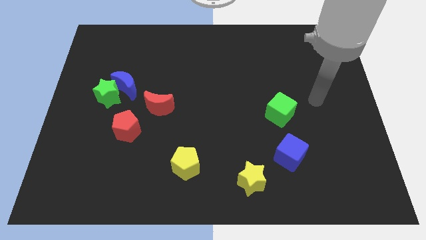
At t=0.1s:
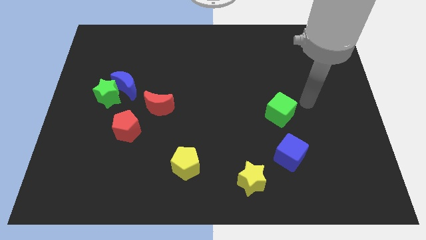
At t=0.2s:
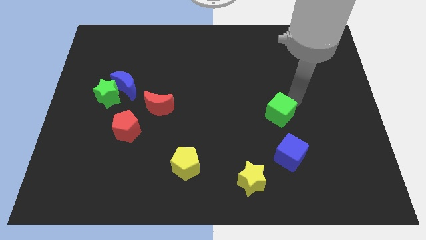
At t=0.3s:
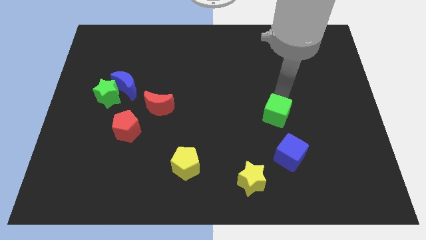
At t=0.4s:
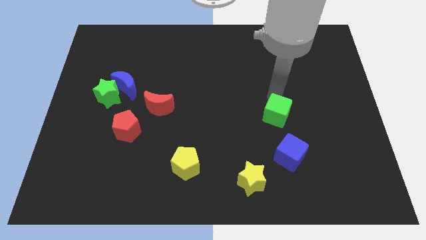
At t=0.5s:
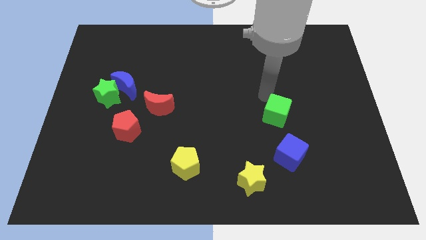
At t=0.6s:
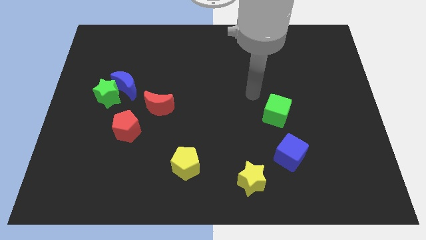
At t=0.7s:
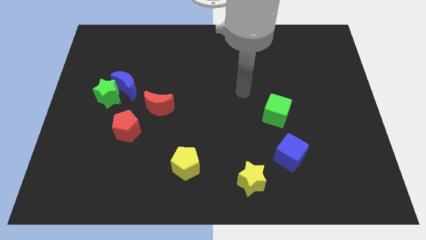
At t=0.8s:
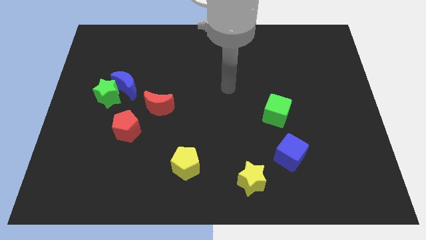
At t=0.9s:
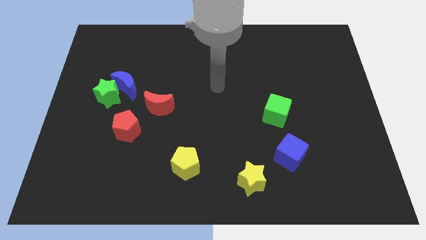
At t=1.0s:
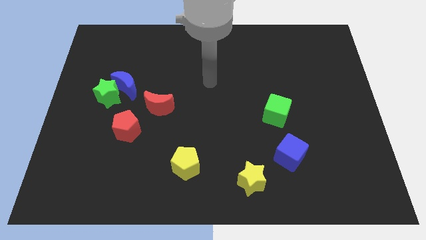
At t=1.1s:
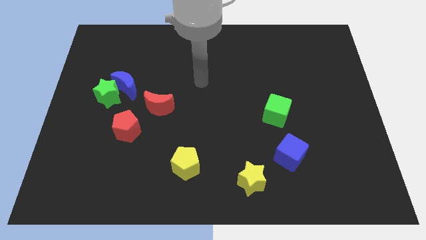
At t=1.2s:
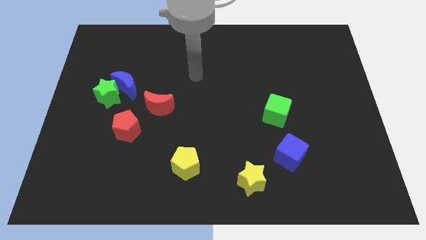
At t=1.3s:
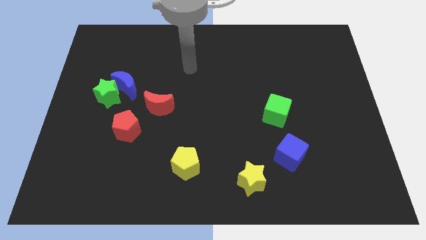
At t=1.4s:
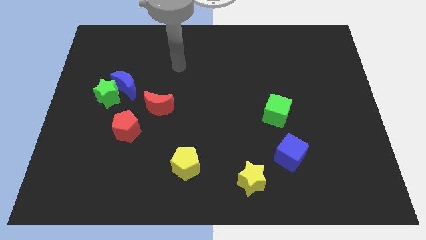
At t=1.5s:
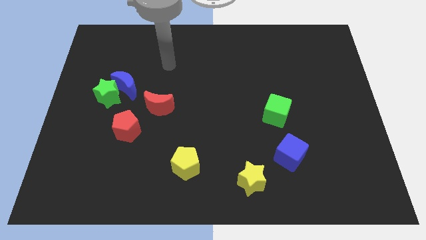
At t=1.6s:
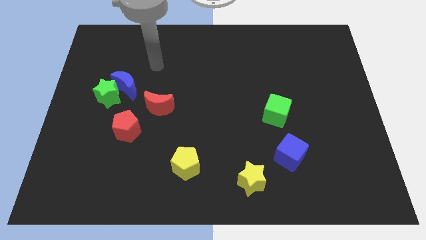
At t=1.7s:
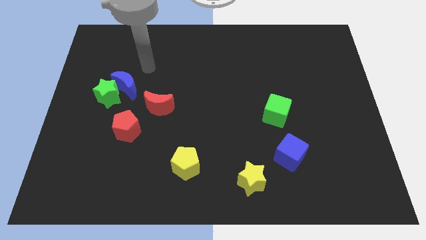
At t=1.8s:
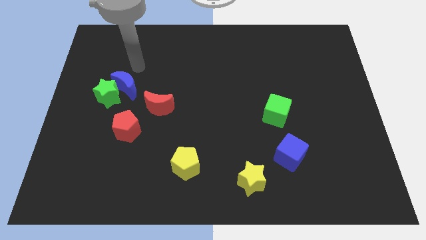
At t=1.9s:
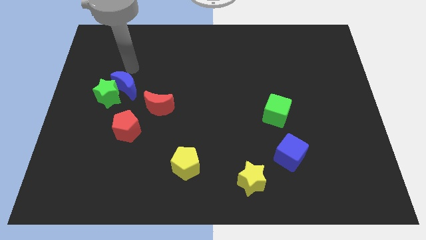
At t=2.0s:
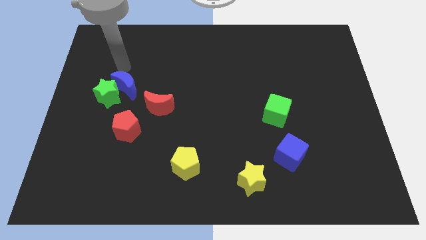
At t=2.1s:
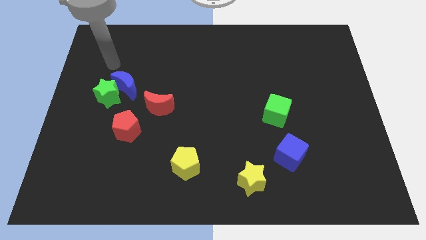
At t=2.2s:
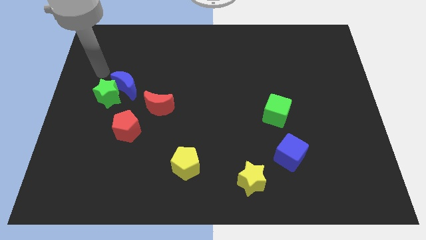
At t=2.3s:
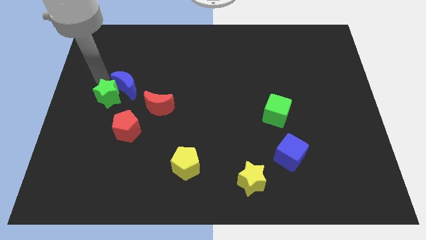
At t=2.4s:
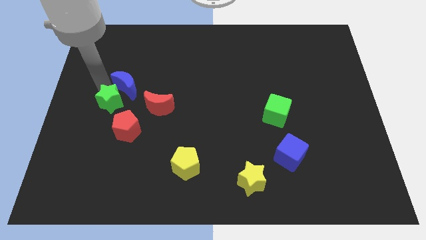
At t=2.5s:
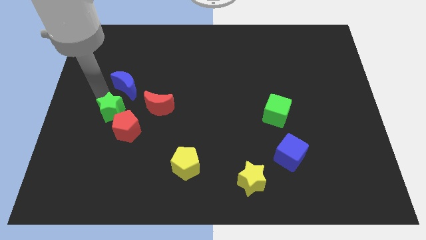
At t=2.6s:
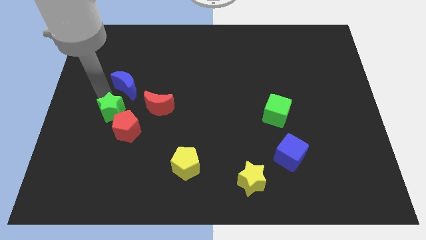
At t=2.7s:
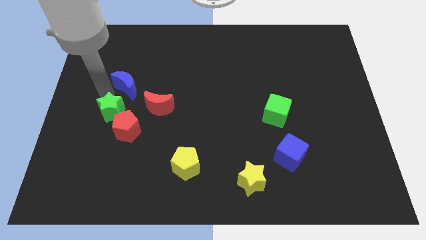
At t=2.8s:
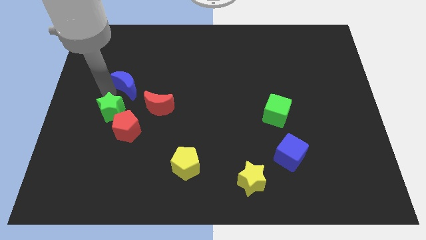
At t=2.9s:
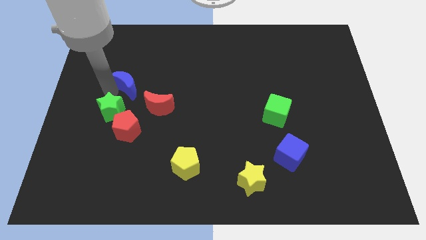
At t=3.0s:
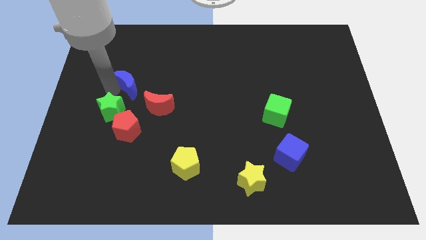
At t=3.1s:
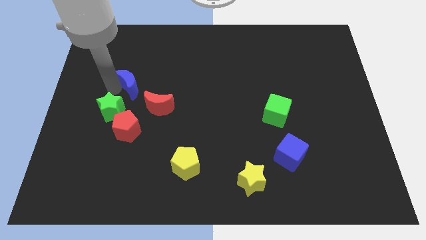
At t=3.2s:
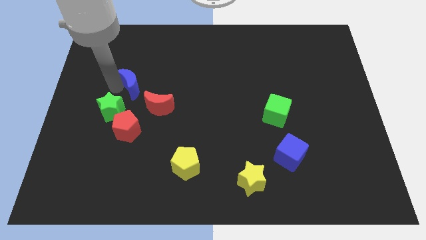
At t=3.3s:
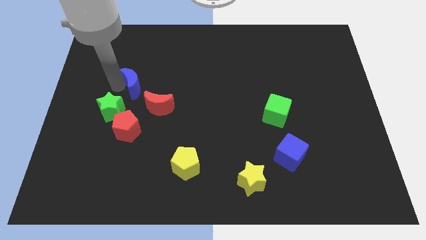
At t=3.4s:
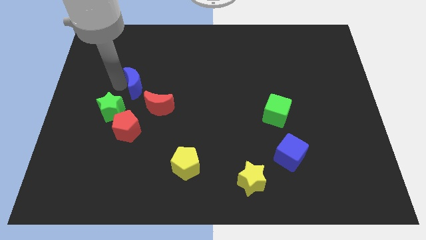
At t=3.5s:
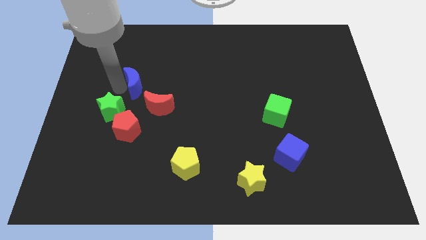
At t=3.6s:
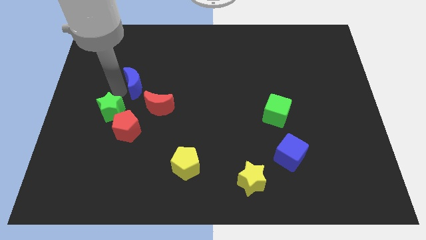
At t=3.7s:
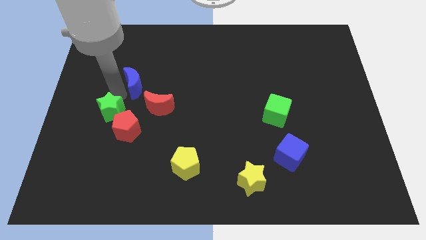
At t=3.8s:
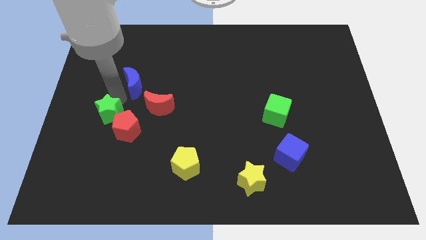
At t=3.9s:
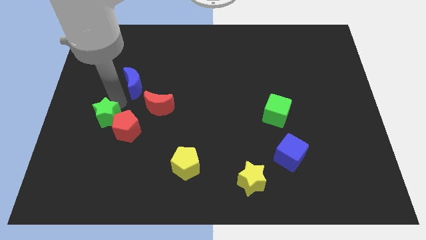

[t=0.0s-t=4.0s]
separate the blue moon from the green star

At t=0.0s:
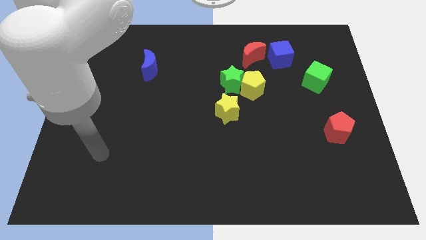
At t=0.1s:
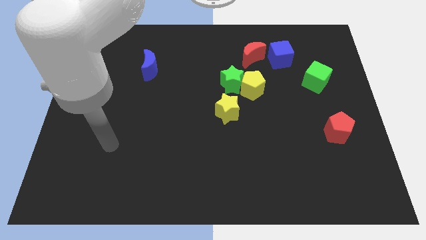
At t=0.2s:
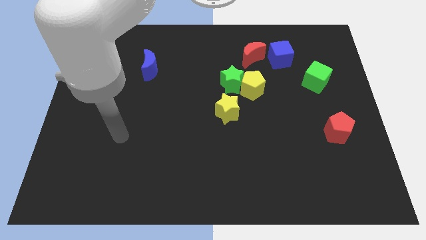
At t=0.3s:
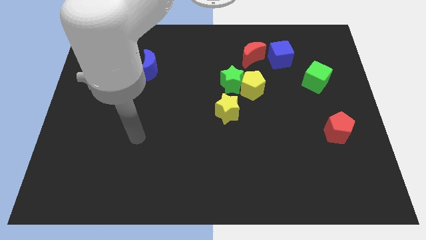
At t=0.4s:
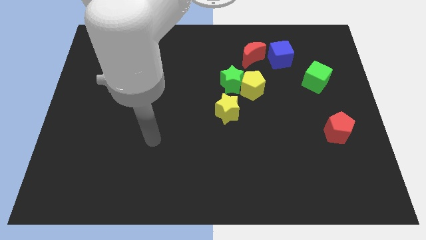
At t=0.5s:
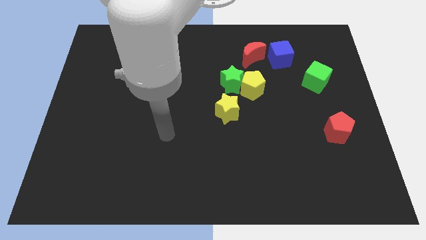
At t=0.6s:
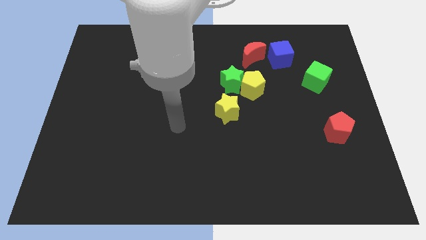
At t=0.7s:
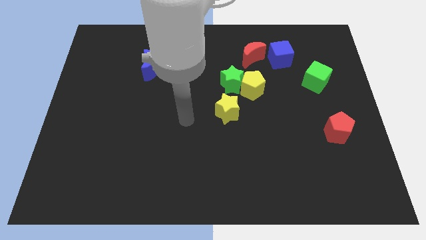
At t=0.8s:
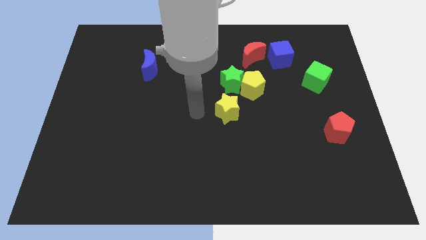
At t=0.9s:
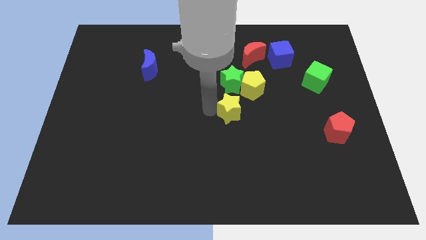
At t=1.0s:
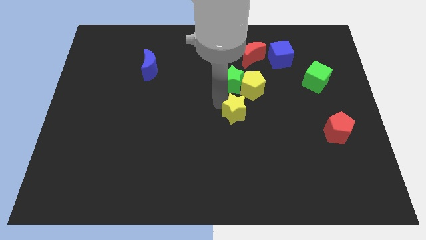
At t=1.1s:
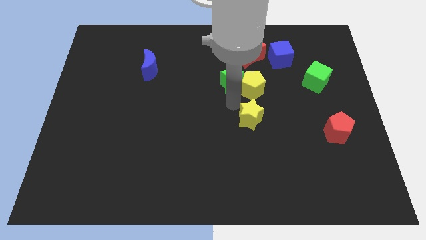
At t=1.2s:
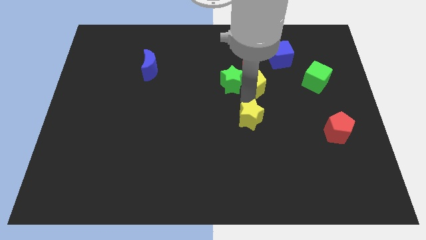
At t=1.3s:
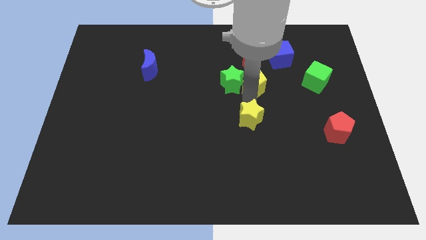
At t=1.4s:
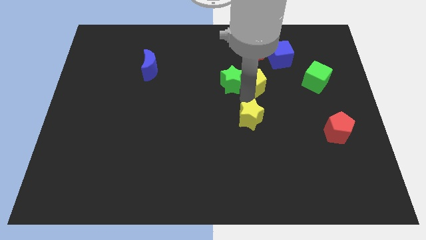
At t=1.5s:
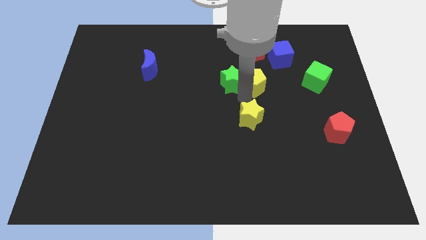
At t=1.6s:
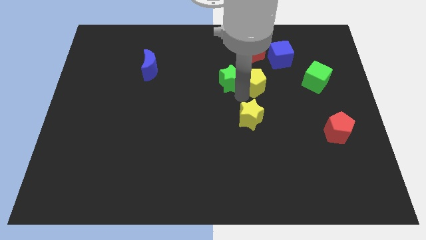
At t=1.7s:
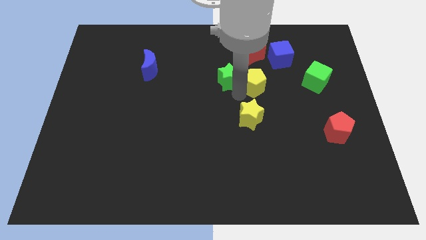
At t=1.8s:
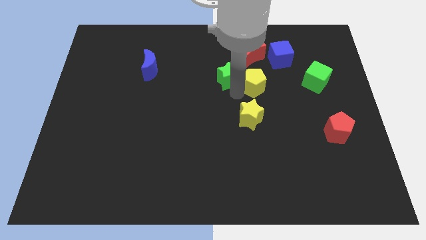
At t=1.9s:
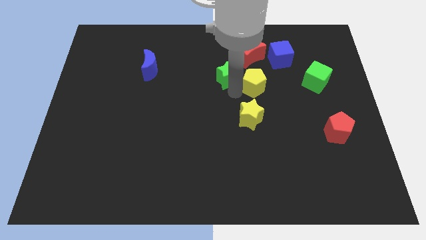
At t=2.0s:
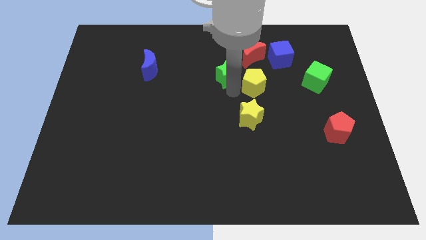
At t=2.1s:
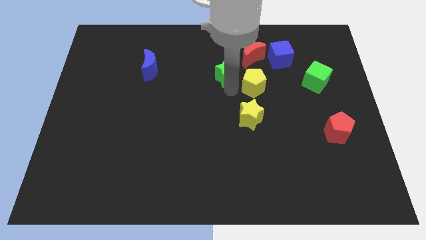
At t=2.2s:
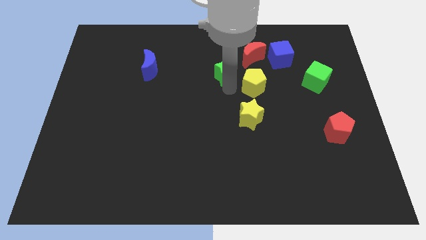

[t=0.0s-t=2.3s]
pull the green star apart from the yellow pentagon and yellow star

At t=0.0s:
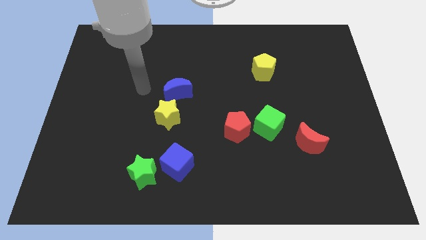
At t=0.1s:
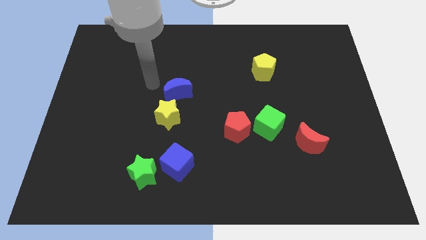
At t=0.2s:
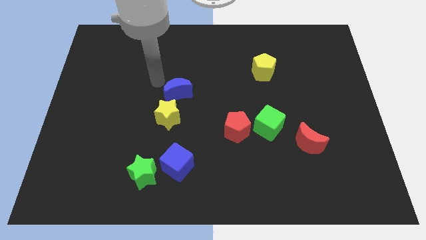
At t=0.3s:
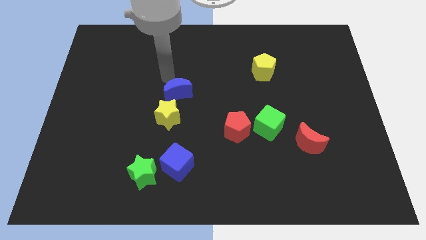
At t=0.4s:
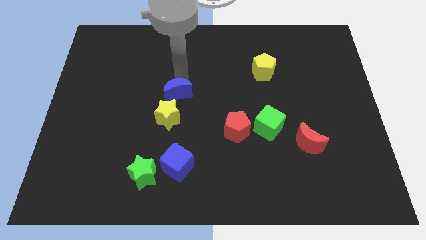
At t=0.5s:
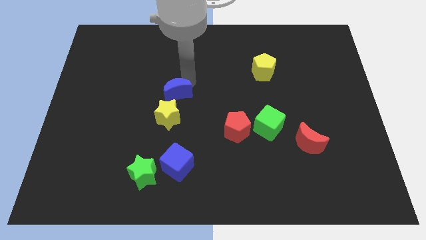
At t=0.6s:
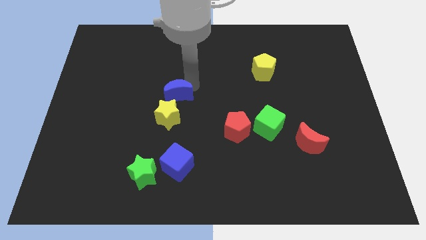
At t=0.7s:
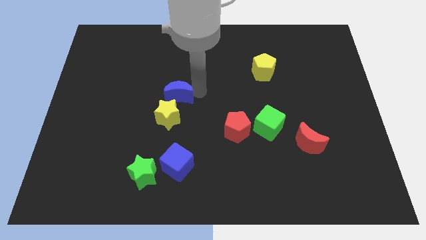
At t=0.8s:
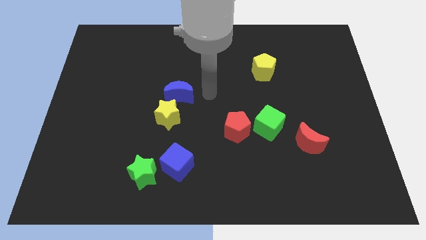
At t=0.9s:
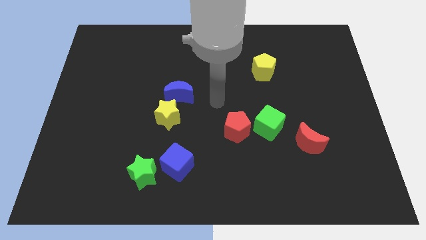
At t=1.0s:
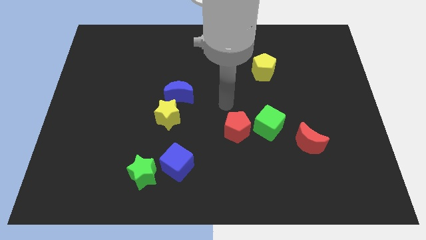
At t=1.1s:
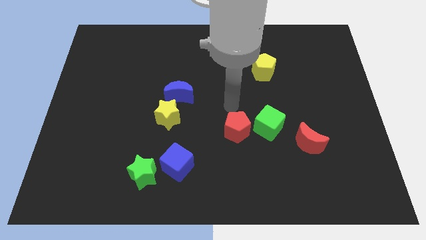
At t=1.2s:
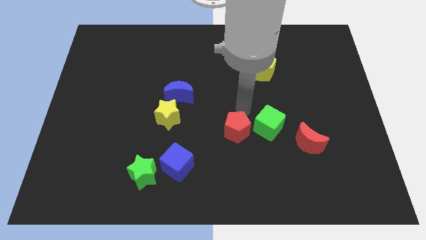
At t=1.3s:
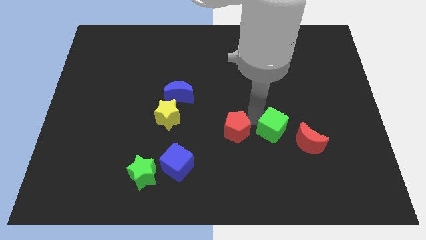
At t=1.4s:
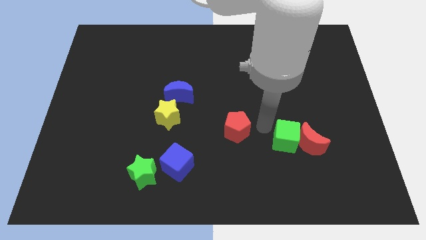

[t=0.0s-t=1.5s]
separate the red pentagon from the green cube

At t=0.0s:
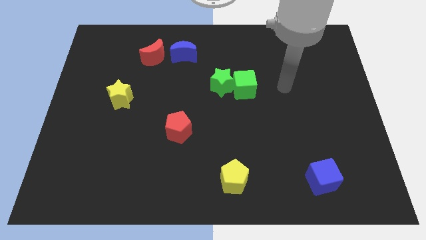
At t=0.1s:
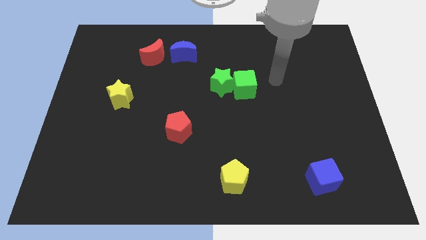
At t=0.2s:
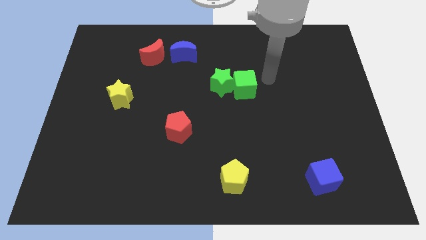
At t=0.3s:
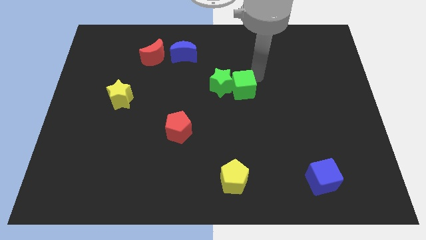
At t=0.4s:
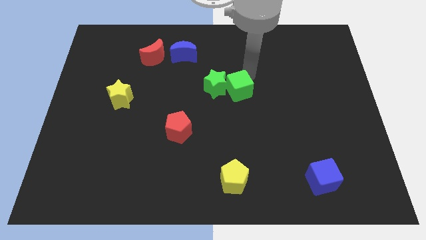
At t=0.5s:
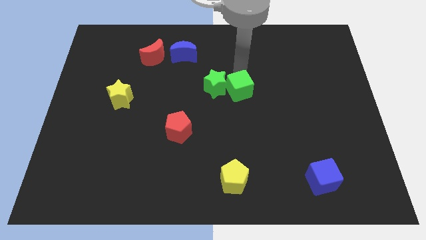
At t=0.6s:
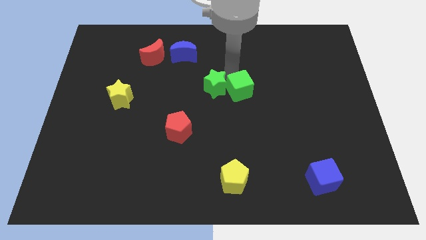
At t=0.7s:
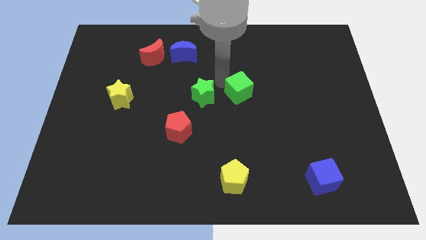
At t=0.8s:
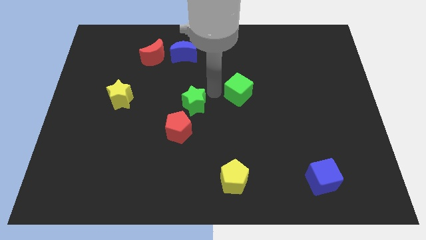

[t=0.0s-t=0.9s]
separate the green cube from the green star

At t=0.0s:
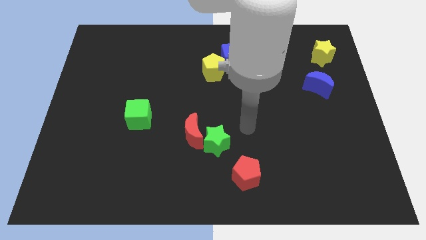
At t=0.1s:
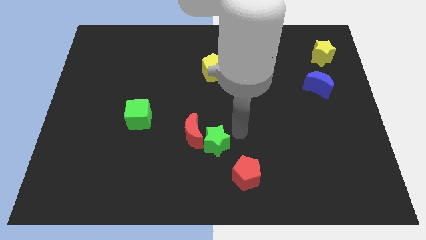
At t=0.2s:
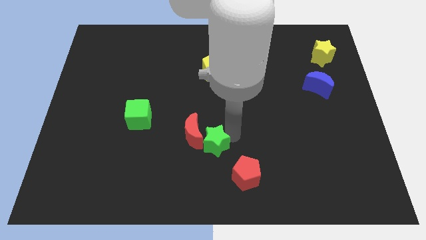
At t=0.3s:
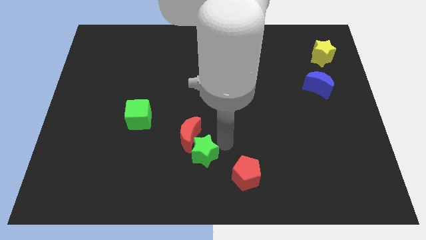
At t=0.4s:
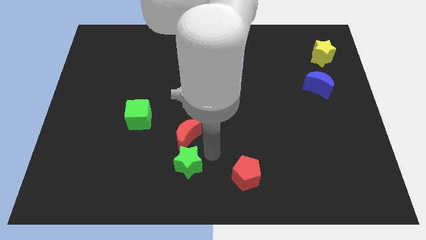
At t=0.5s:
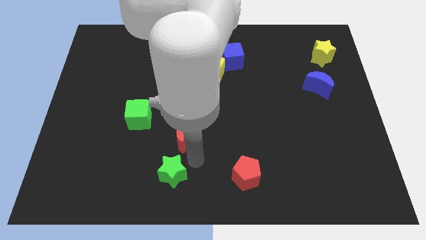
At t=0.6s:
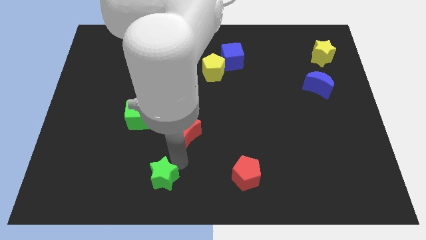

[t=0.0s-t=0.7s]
separate the red moon from the green star
